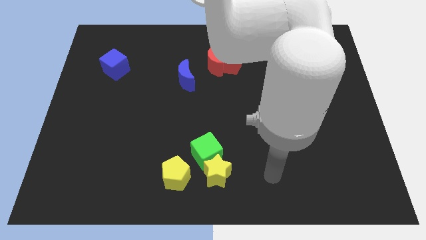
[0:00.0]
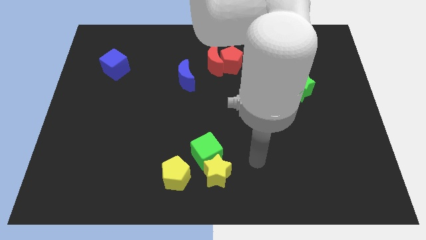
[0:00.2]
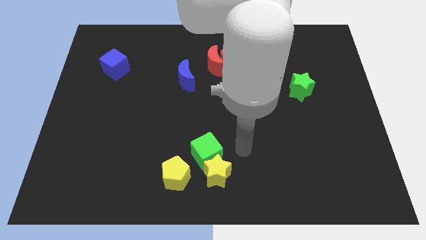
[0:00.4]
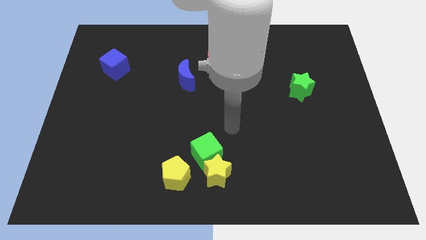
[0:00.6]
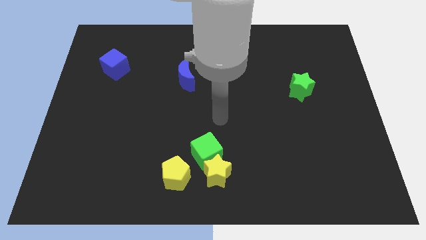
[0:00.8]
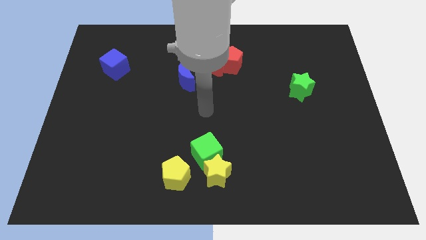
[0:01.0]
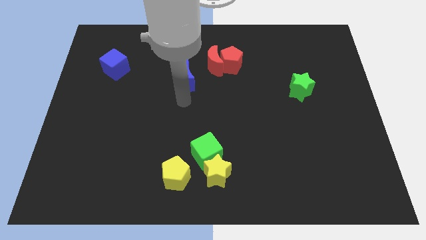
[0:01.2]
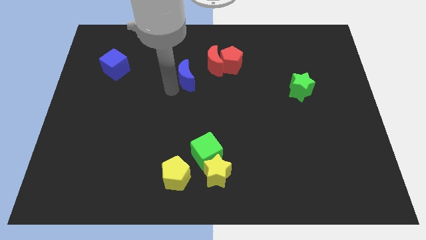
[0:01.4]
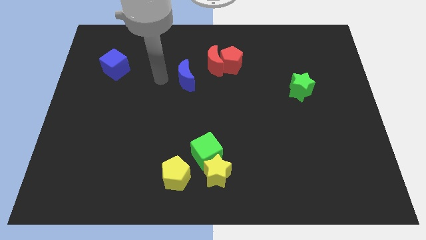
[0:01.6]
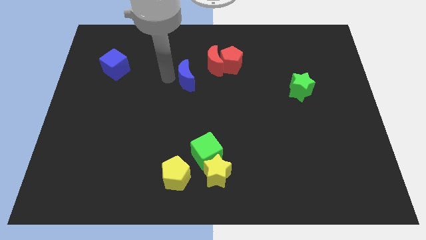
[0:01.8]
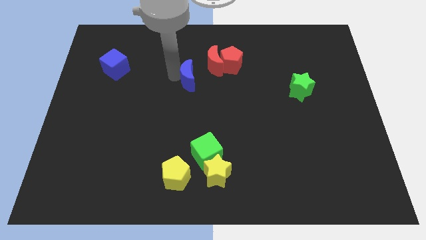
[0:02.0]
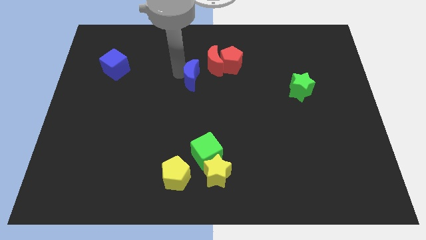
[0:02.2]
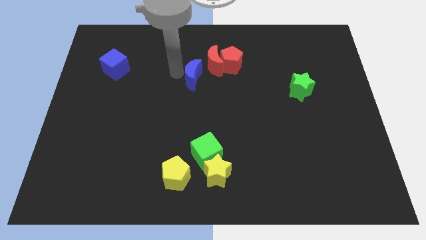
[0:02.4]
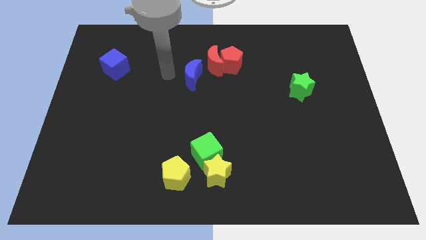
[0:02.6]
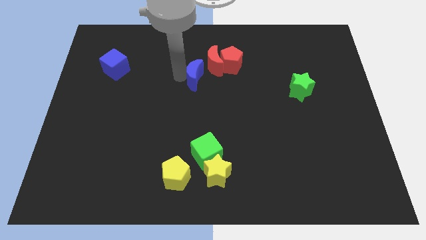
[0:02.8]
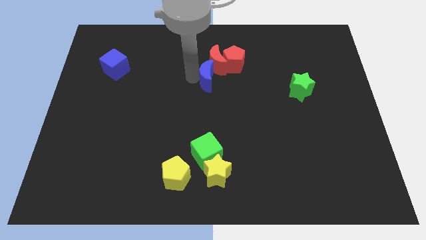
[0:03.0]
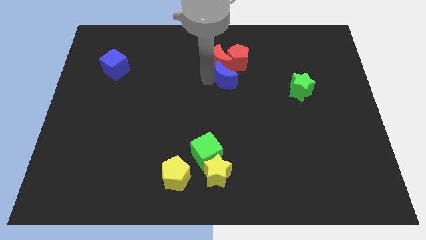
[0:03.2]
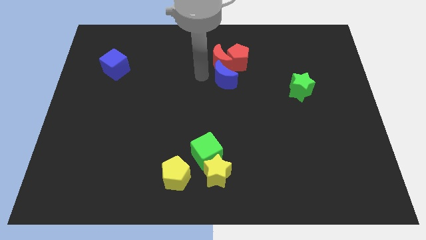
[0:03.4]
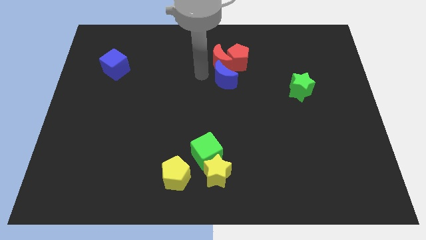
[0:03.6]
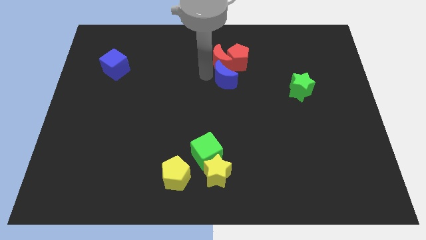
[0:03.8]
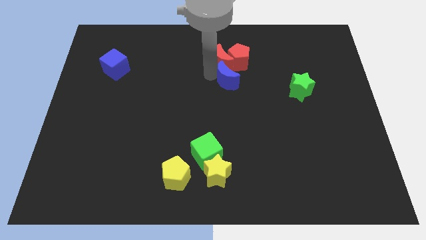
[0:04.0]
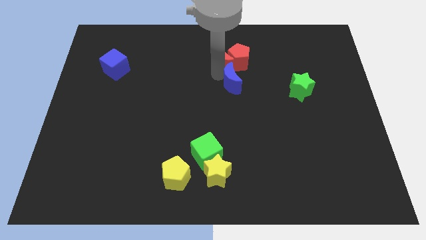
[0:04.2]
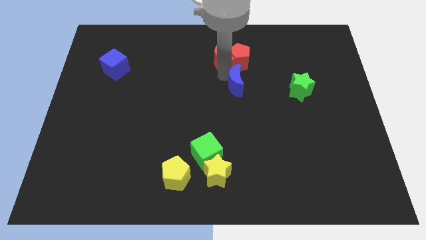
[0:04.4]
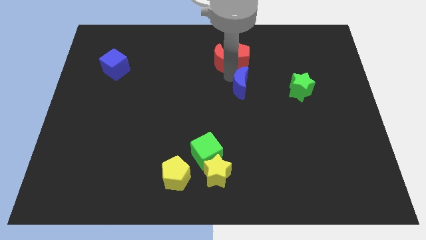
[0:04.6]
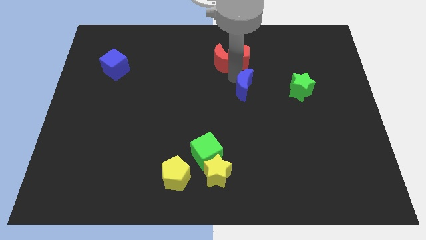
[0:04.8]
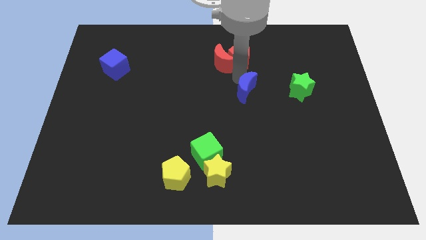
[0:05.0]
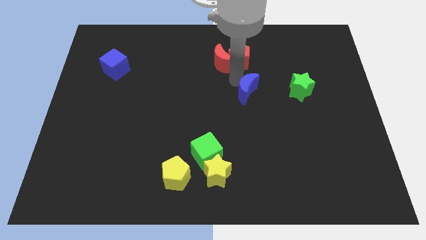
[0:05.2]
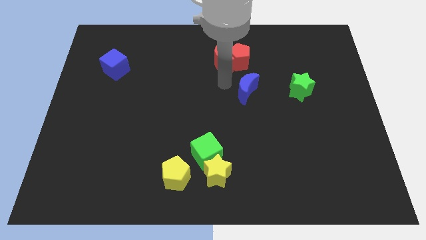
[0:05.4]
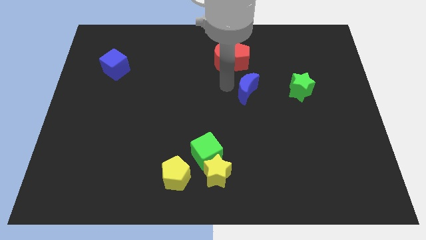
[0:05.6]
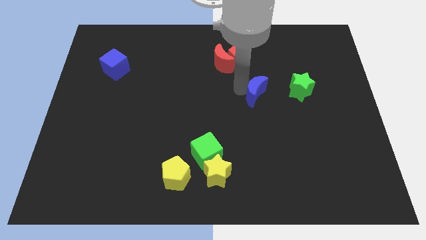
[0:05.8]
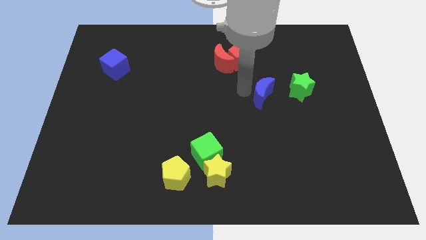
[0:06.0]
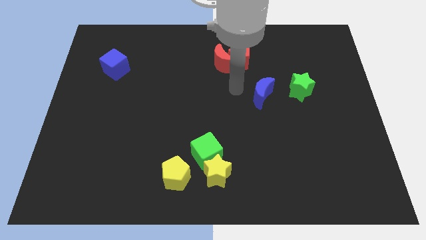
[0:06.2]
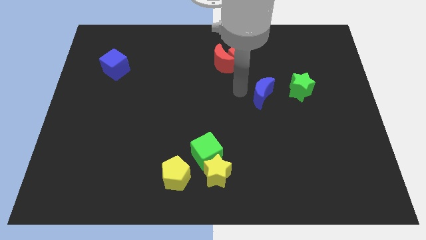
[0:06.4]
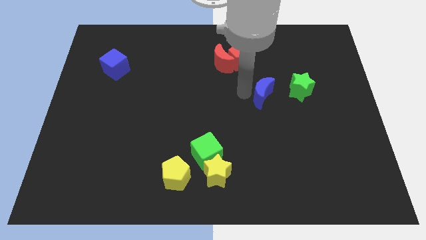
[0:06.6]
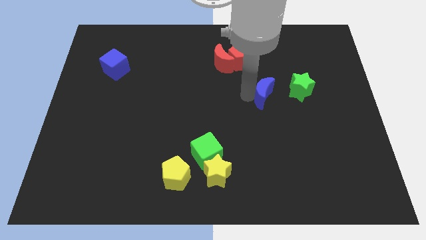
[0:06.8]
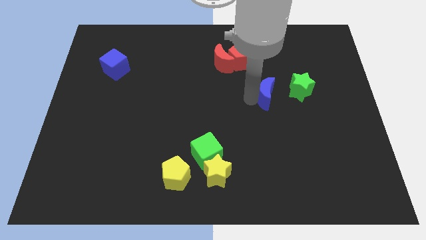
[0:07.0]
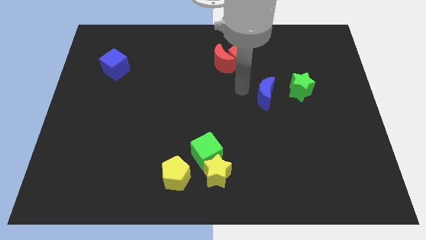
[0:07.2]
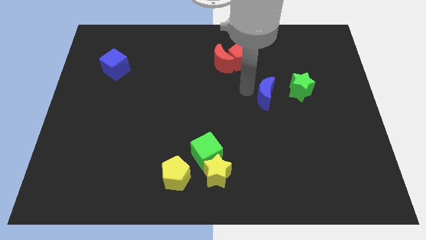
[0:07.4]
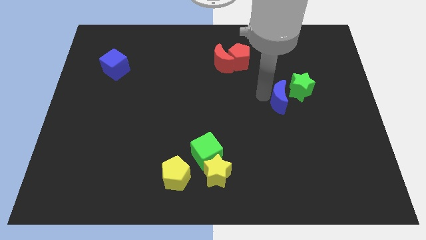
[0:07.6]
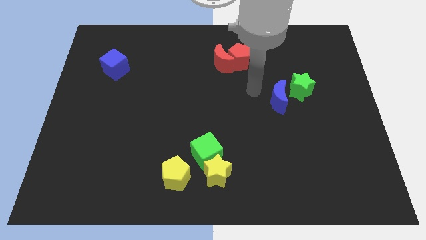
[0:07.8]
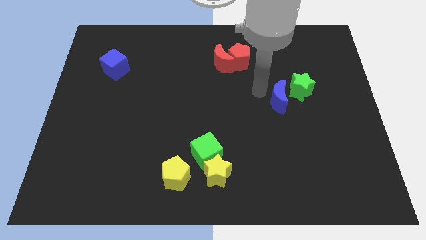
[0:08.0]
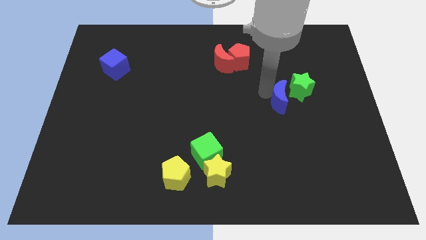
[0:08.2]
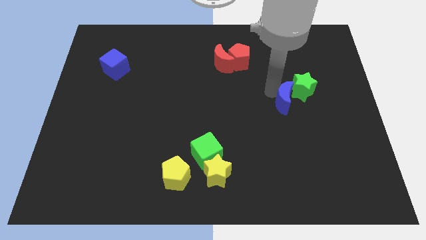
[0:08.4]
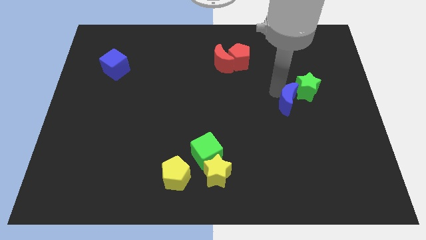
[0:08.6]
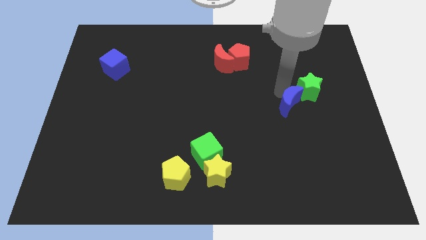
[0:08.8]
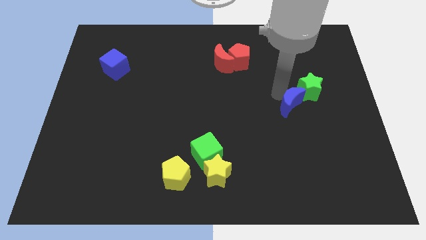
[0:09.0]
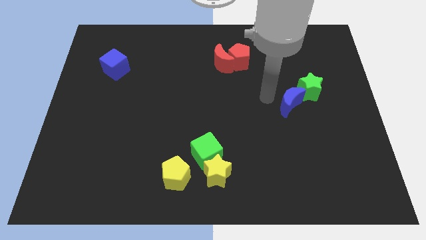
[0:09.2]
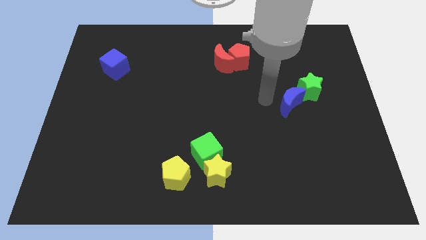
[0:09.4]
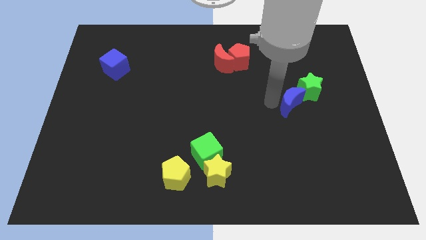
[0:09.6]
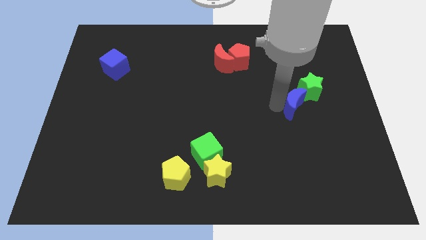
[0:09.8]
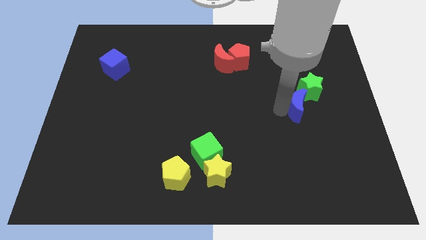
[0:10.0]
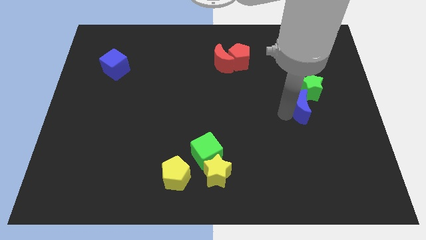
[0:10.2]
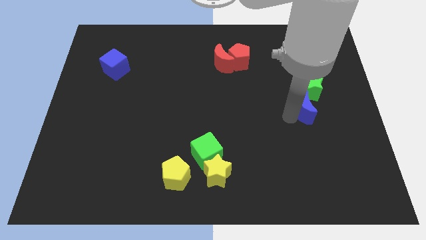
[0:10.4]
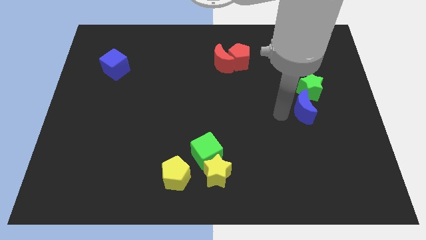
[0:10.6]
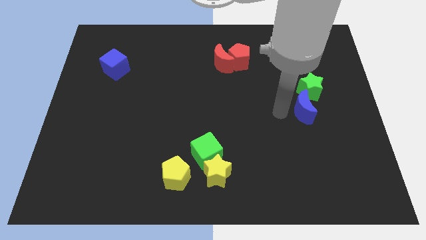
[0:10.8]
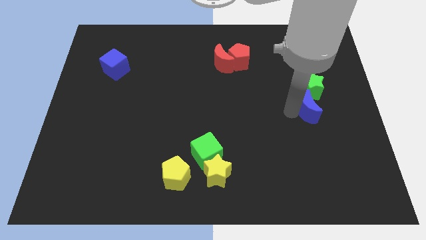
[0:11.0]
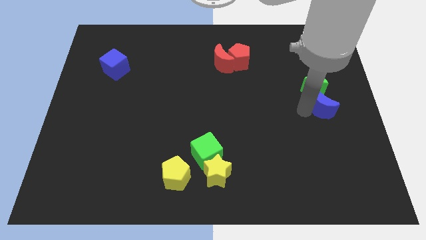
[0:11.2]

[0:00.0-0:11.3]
put the blue moon to the center right
